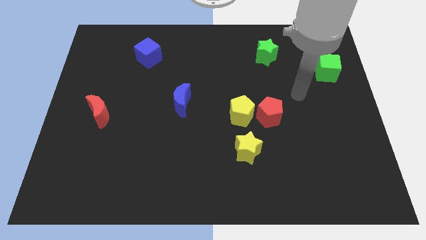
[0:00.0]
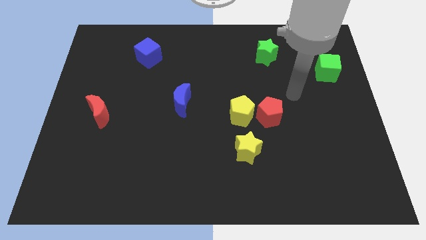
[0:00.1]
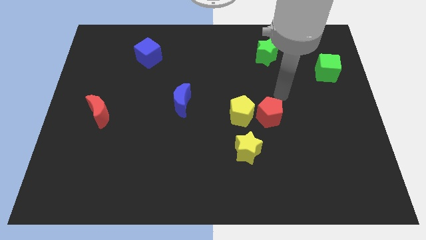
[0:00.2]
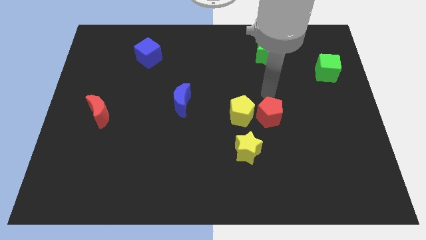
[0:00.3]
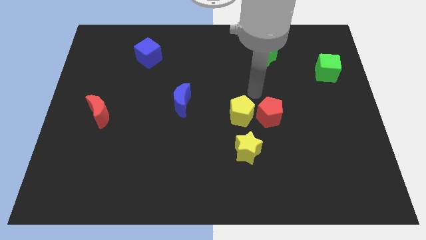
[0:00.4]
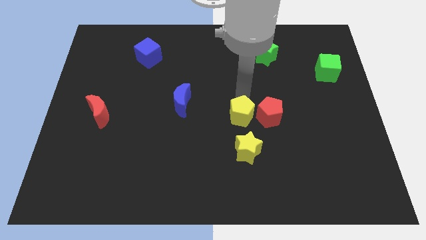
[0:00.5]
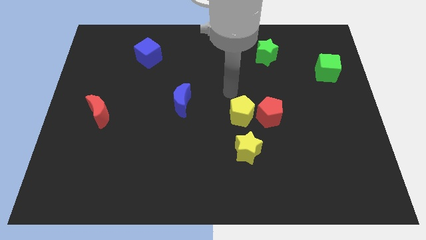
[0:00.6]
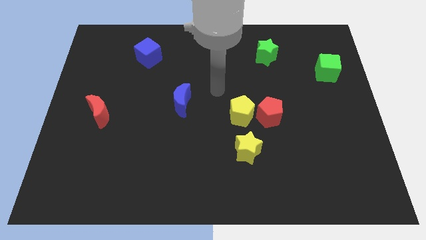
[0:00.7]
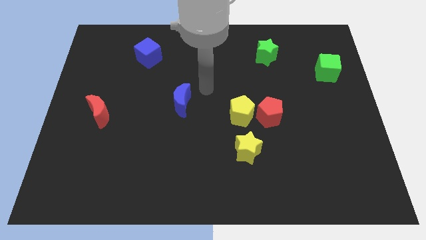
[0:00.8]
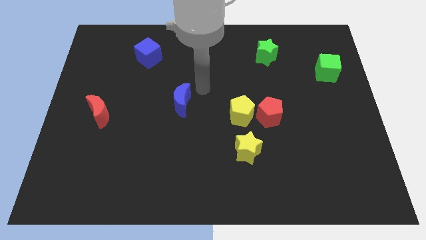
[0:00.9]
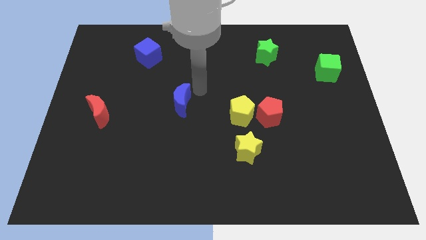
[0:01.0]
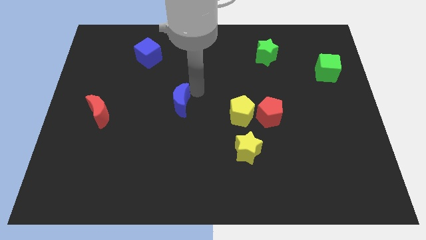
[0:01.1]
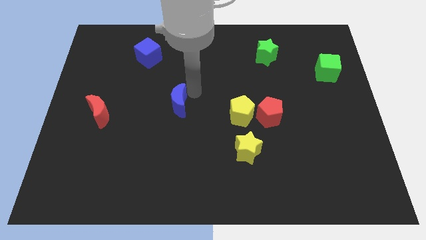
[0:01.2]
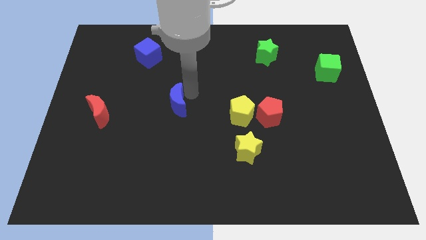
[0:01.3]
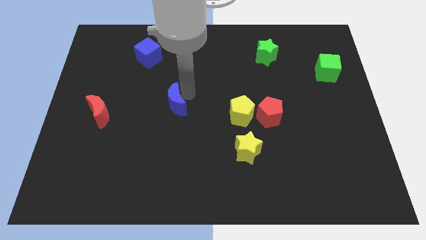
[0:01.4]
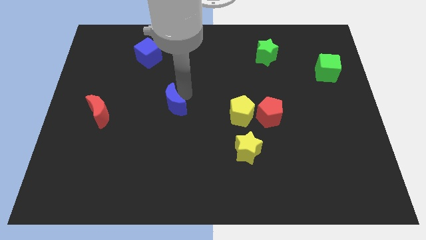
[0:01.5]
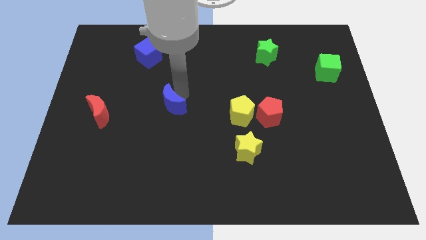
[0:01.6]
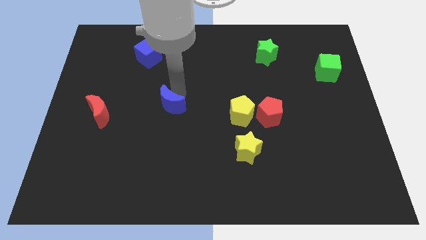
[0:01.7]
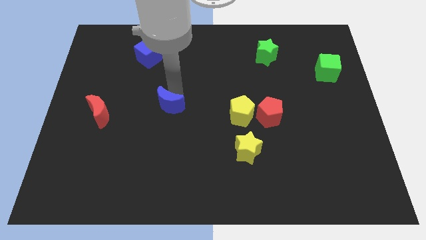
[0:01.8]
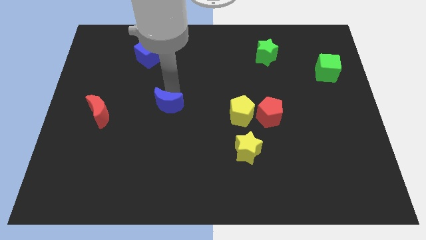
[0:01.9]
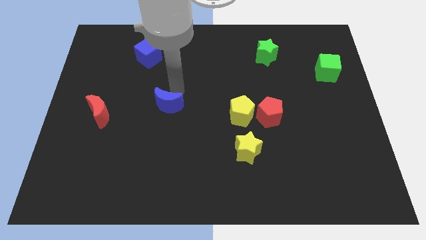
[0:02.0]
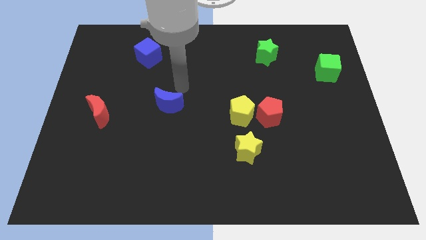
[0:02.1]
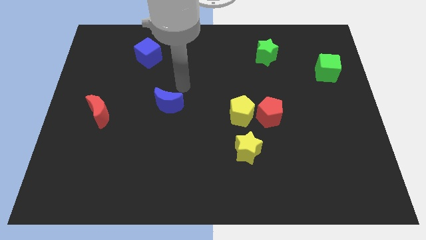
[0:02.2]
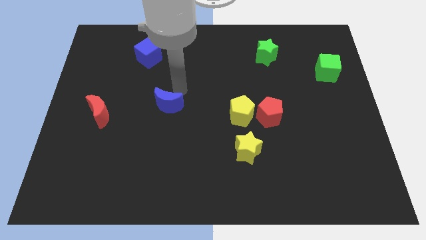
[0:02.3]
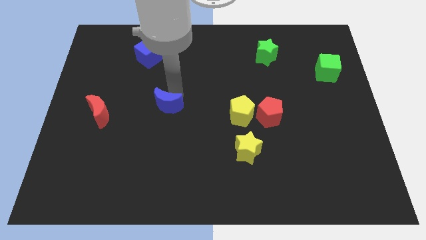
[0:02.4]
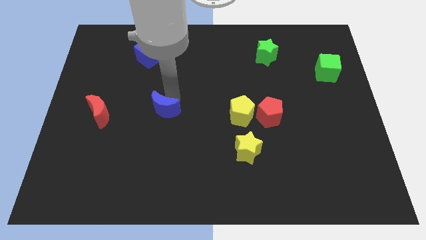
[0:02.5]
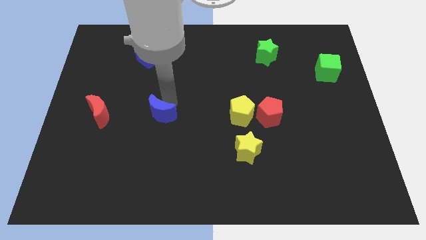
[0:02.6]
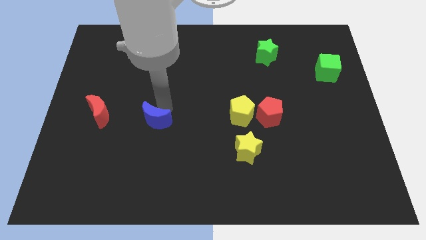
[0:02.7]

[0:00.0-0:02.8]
move the blue moon downwards and then to the left a little

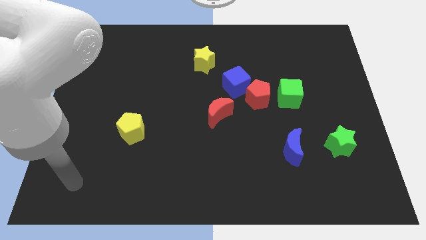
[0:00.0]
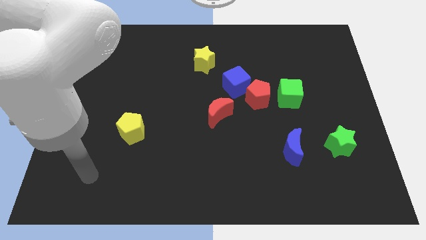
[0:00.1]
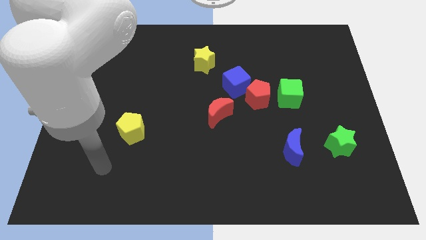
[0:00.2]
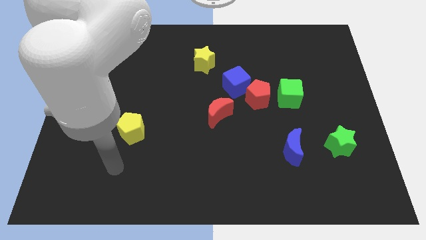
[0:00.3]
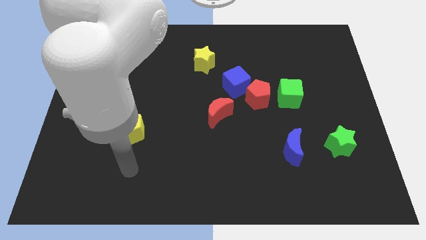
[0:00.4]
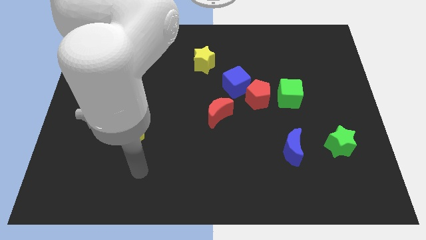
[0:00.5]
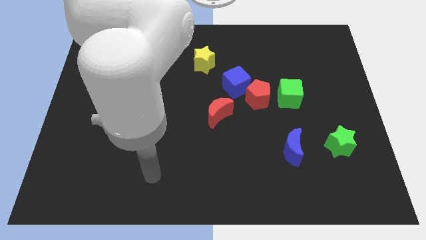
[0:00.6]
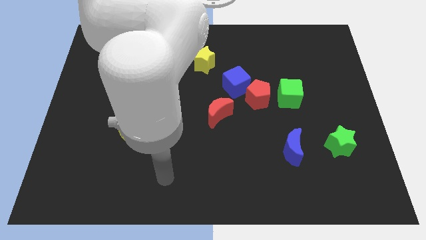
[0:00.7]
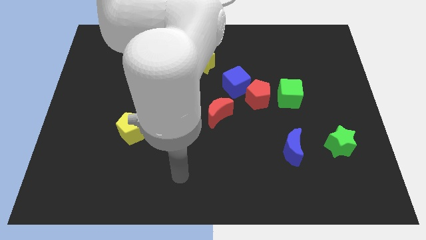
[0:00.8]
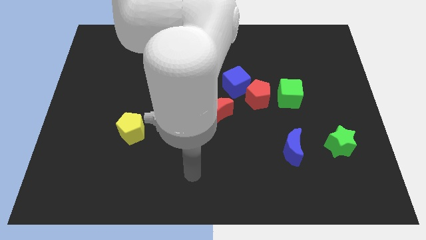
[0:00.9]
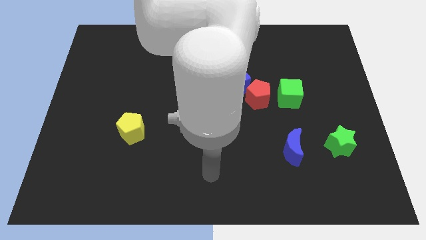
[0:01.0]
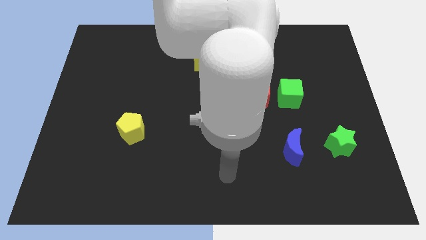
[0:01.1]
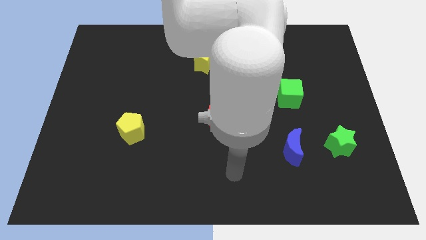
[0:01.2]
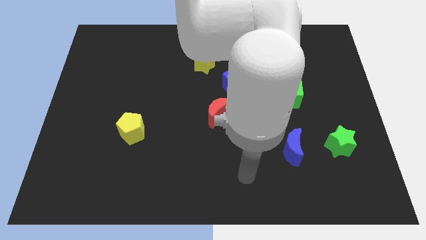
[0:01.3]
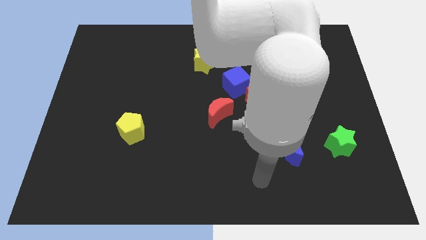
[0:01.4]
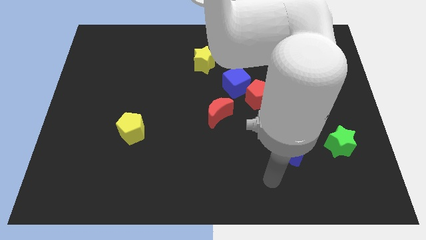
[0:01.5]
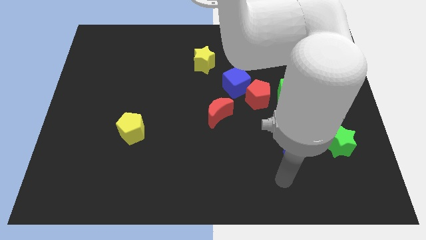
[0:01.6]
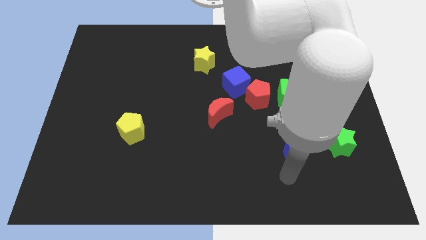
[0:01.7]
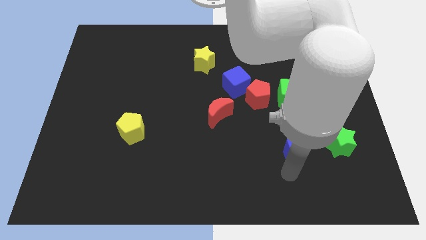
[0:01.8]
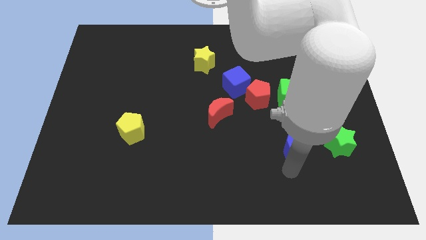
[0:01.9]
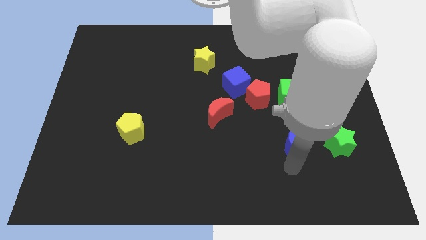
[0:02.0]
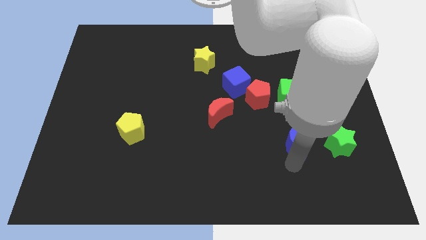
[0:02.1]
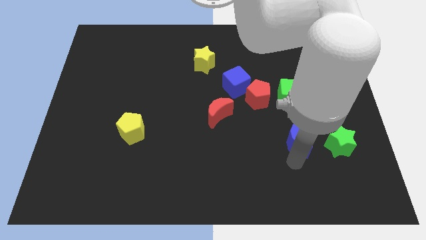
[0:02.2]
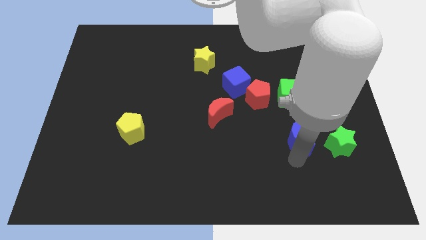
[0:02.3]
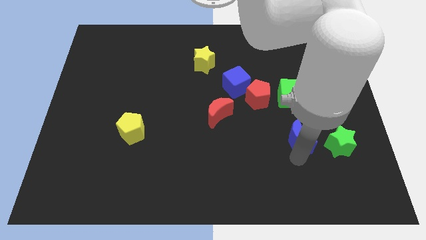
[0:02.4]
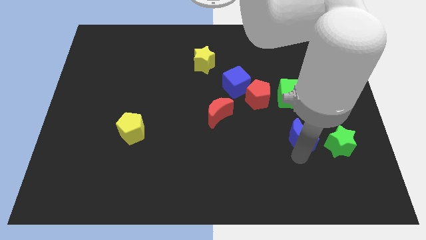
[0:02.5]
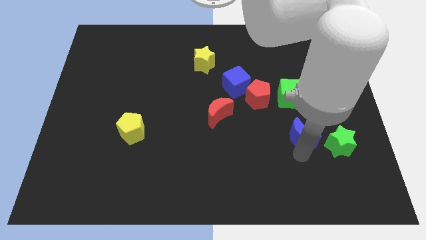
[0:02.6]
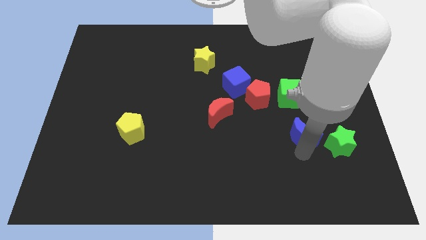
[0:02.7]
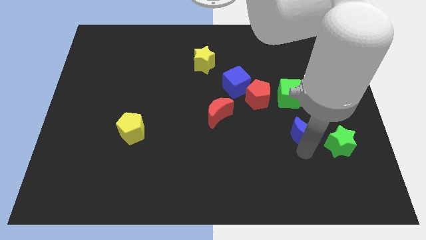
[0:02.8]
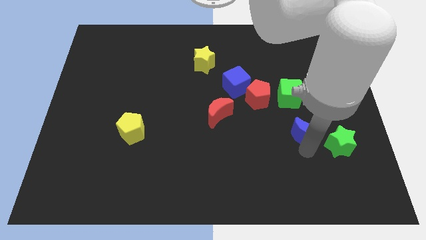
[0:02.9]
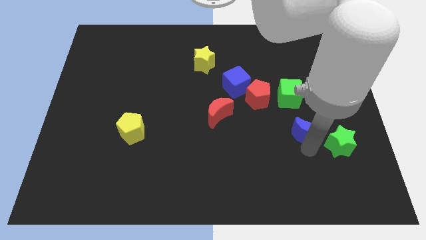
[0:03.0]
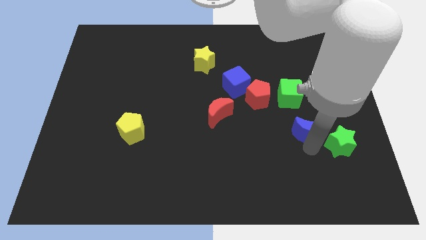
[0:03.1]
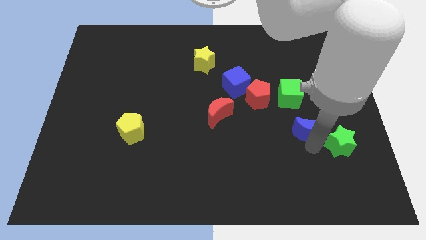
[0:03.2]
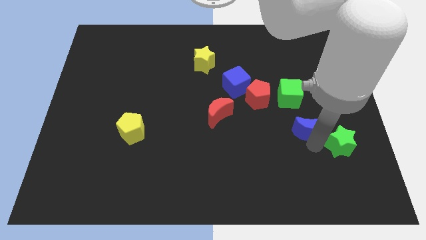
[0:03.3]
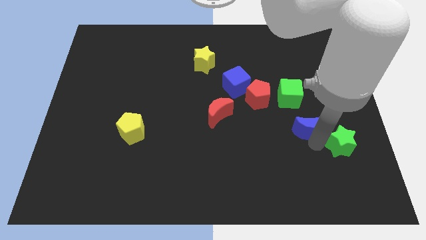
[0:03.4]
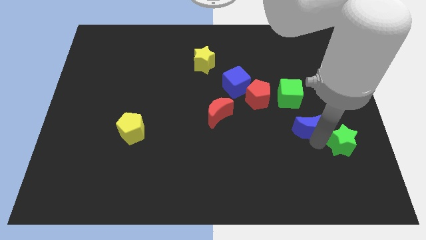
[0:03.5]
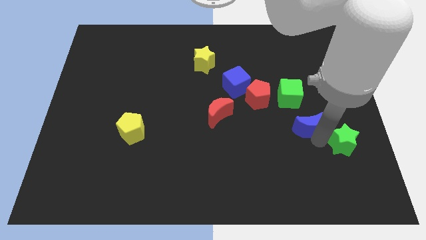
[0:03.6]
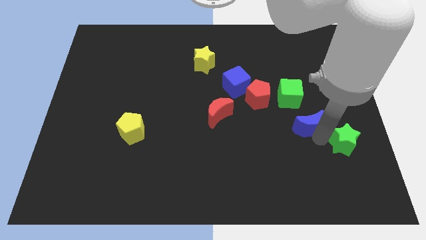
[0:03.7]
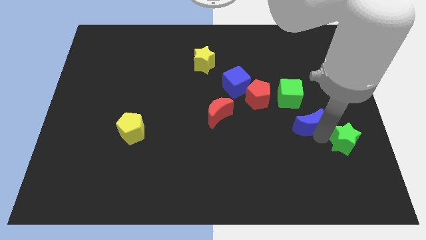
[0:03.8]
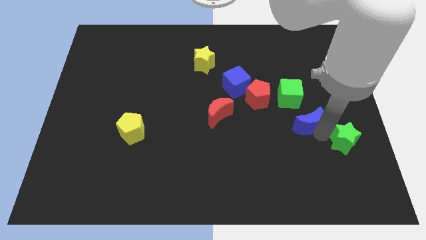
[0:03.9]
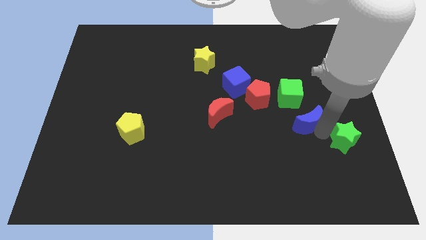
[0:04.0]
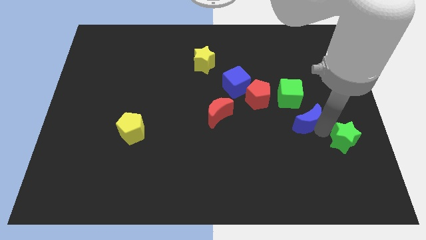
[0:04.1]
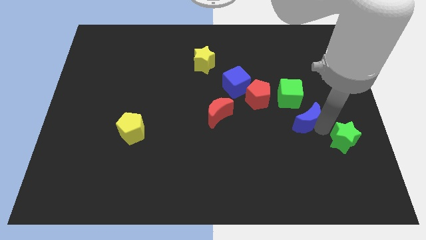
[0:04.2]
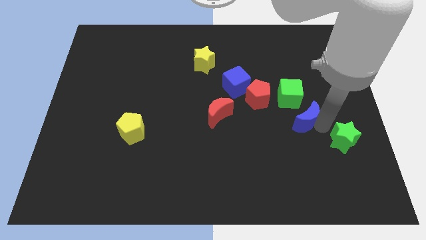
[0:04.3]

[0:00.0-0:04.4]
slightly move the blue moon upwards

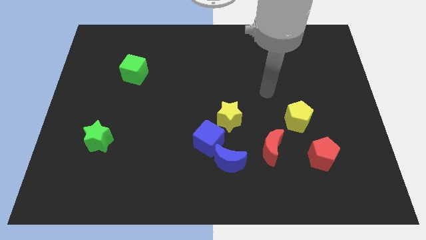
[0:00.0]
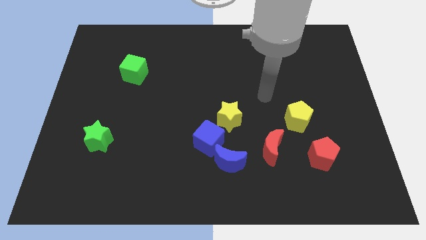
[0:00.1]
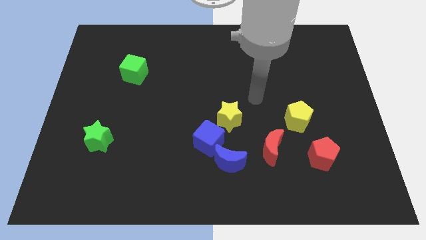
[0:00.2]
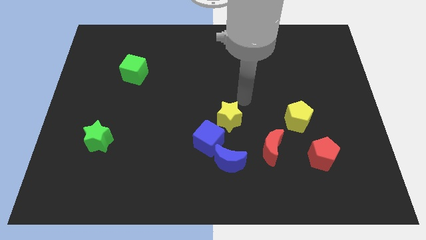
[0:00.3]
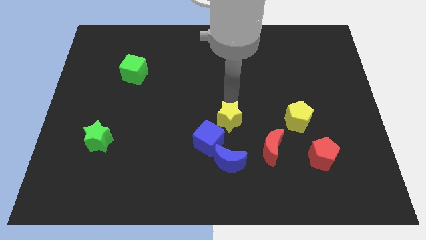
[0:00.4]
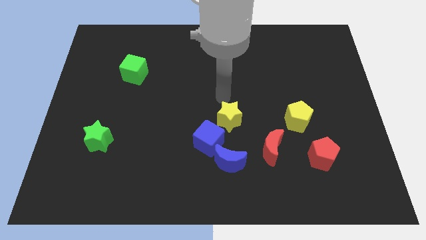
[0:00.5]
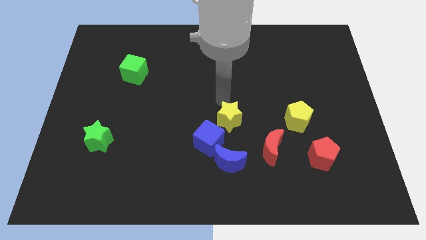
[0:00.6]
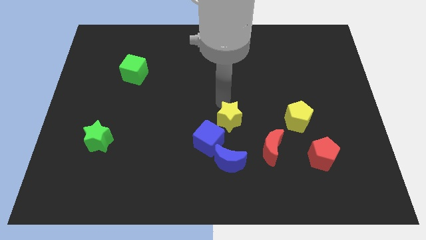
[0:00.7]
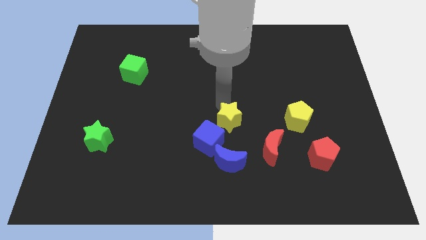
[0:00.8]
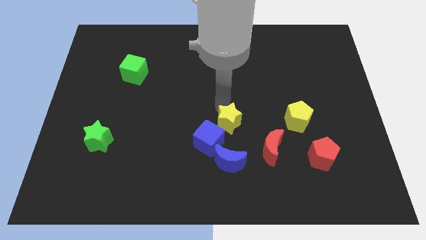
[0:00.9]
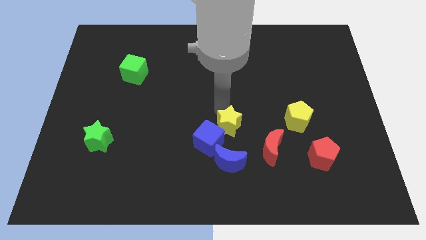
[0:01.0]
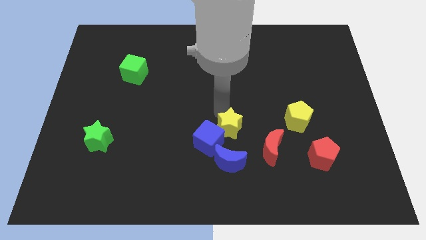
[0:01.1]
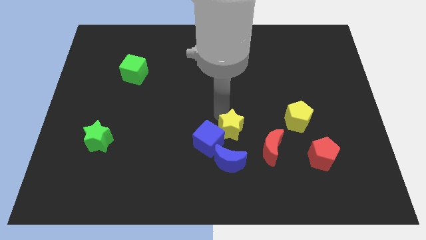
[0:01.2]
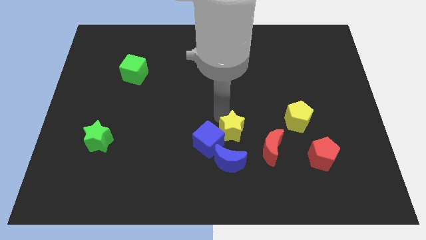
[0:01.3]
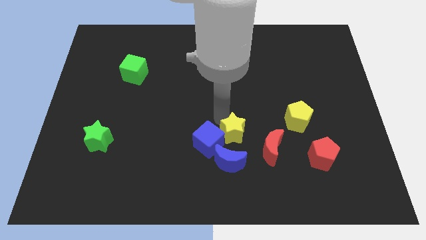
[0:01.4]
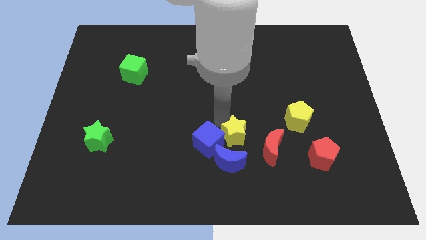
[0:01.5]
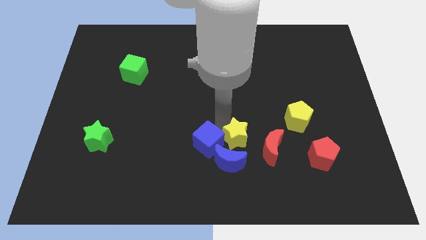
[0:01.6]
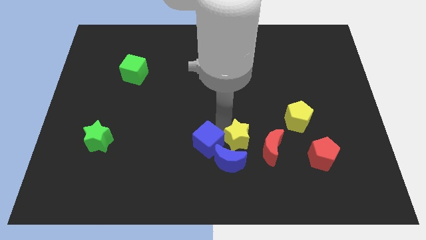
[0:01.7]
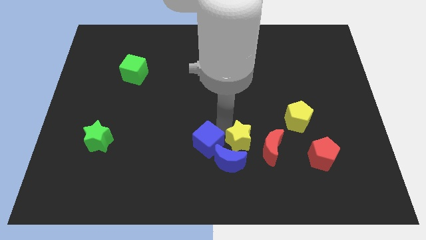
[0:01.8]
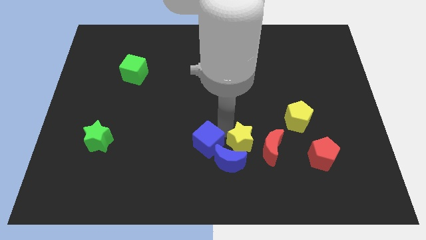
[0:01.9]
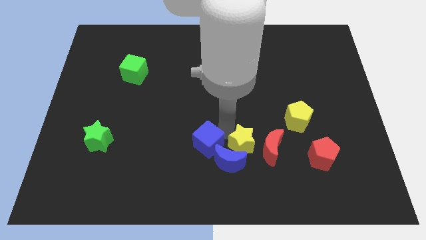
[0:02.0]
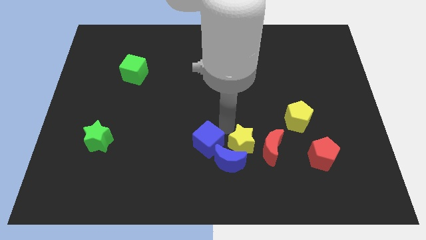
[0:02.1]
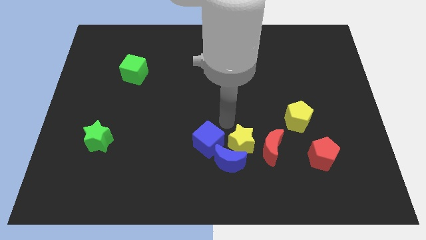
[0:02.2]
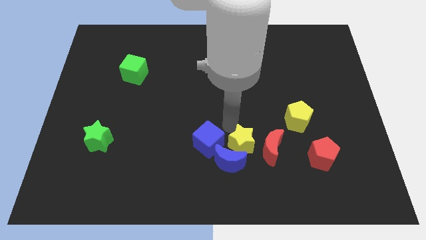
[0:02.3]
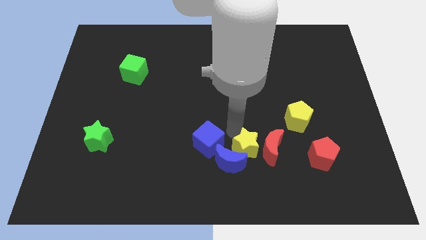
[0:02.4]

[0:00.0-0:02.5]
slightly slide the yellow star downwards and right diagonally
